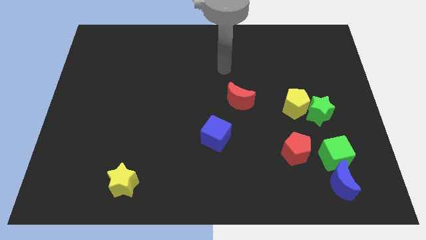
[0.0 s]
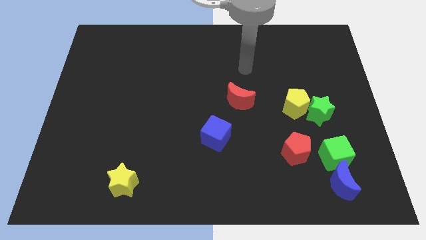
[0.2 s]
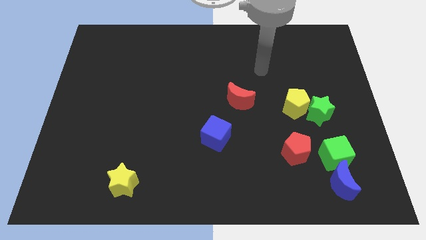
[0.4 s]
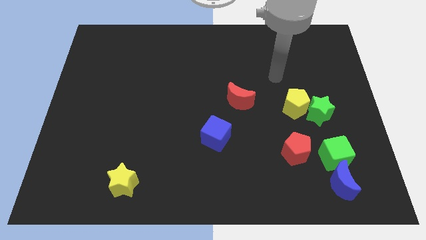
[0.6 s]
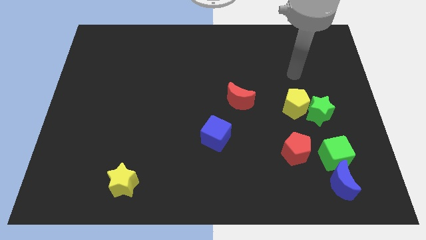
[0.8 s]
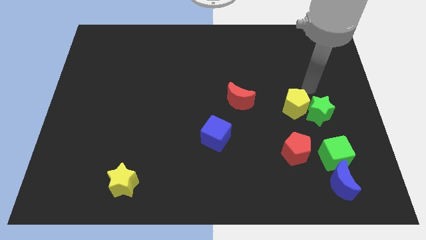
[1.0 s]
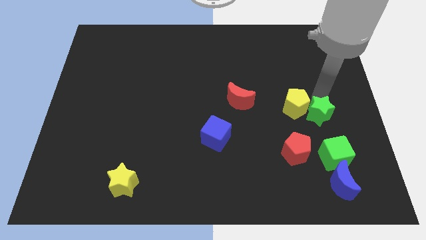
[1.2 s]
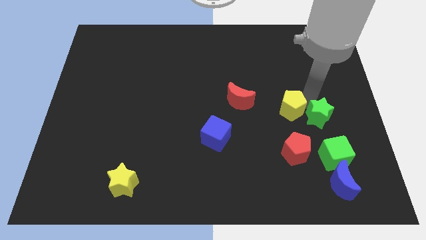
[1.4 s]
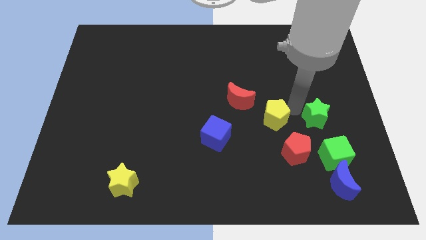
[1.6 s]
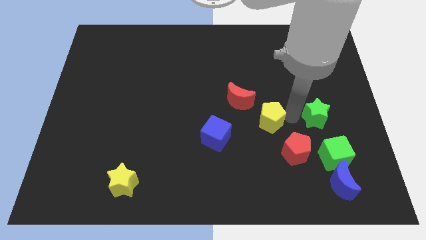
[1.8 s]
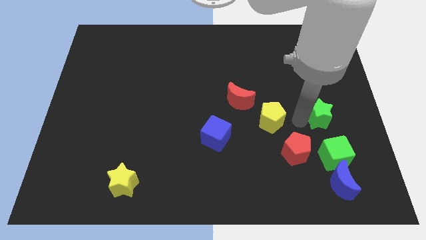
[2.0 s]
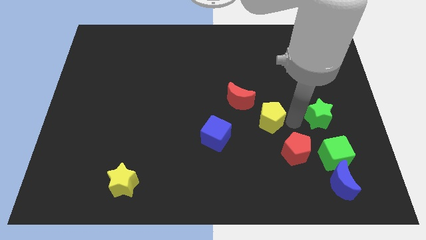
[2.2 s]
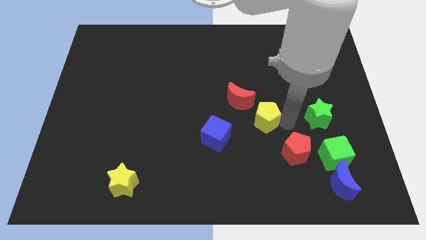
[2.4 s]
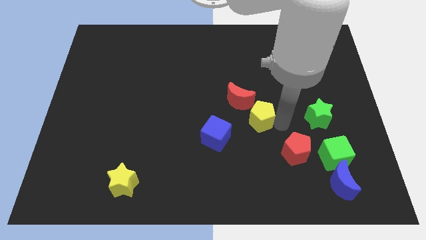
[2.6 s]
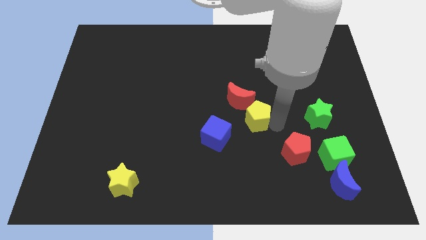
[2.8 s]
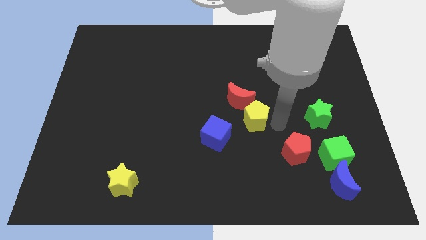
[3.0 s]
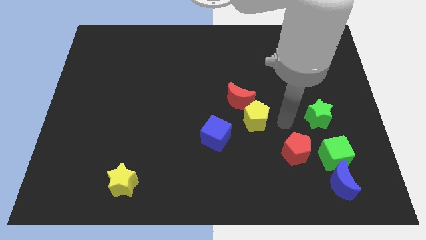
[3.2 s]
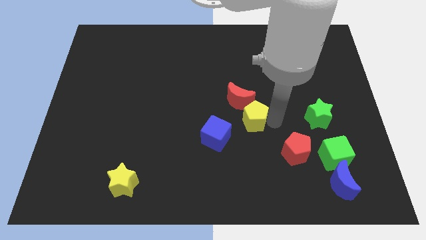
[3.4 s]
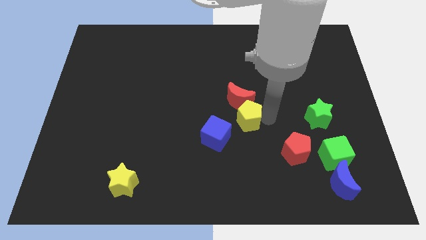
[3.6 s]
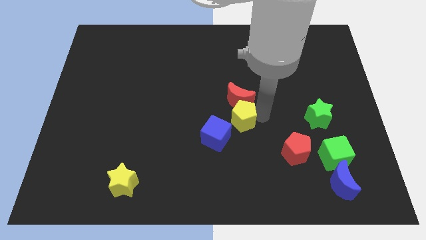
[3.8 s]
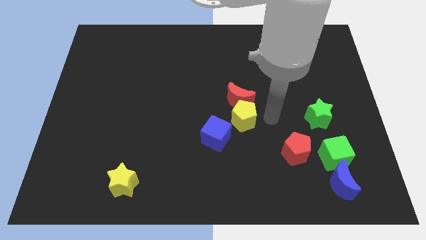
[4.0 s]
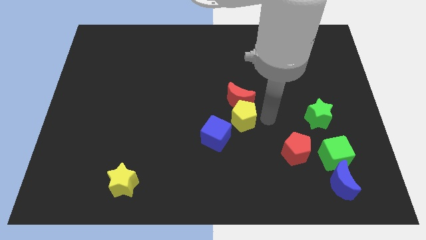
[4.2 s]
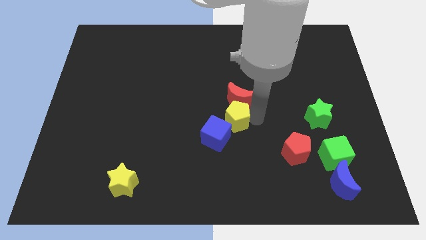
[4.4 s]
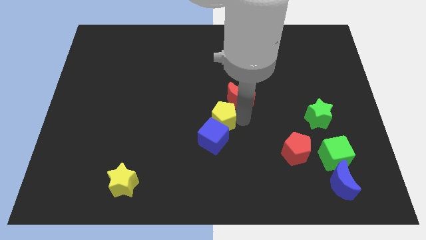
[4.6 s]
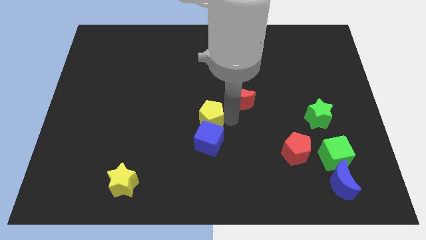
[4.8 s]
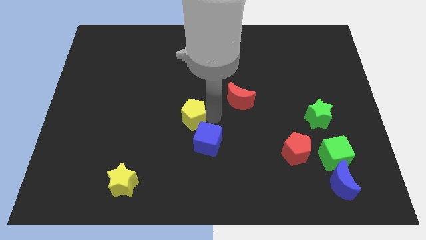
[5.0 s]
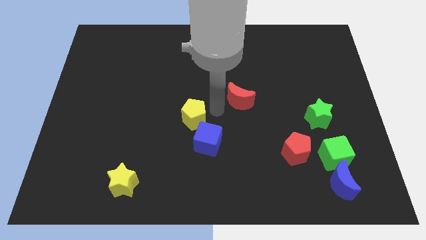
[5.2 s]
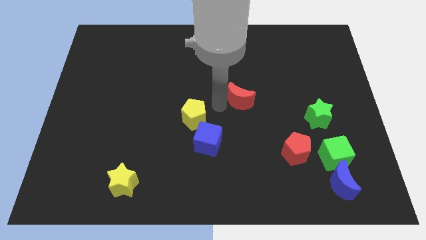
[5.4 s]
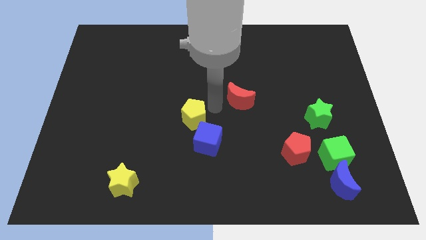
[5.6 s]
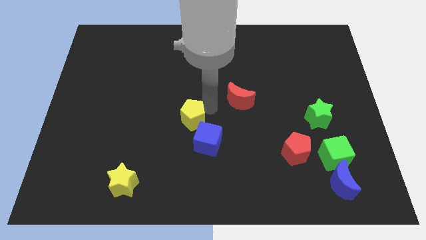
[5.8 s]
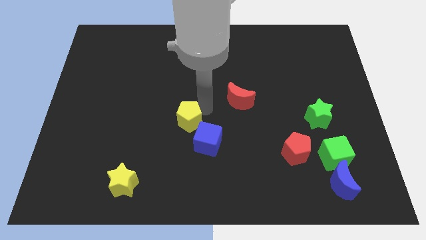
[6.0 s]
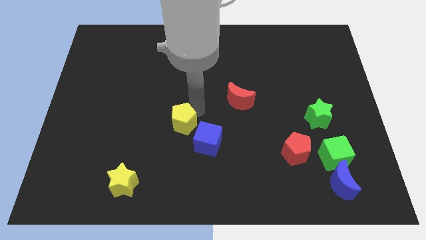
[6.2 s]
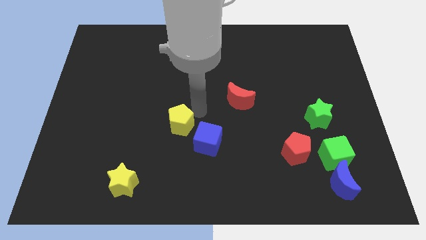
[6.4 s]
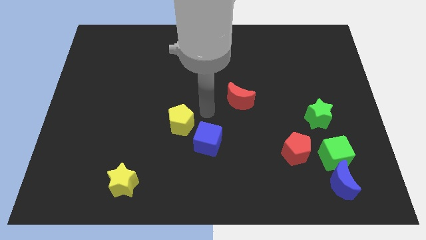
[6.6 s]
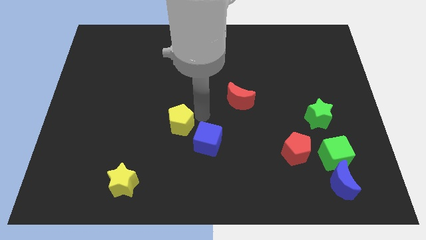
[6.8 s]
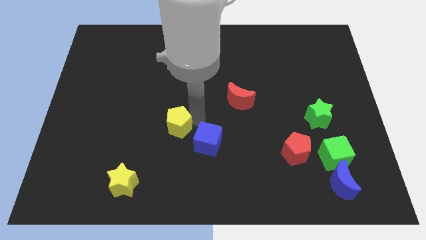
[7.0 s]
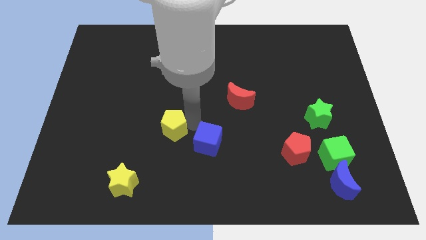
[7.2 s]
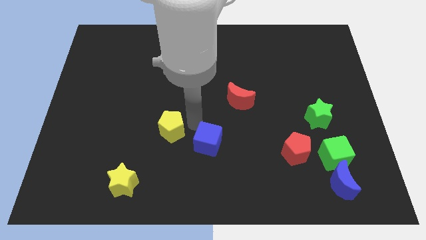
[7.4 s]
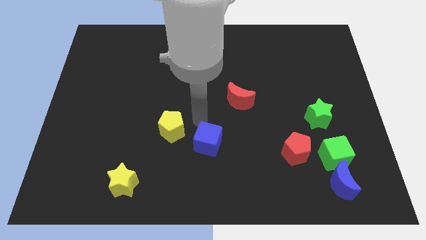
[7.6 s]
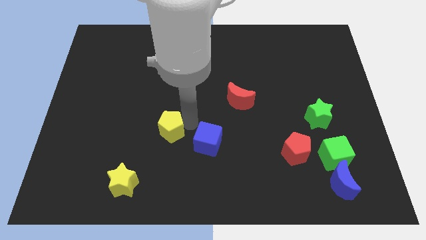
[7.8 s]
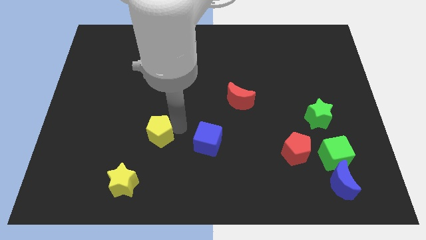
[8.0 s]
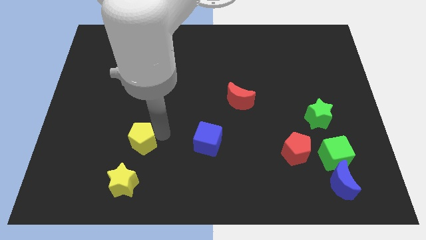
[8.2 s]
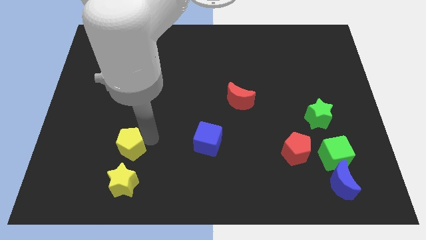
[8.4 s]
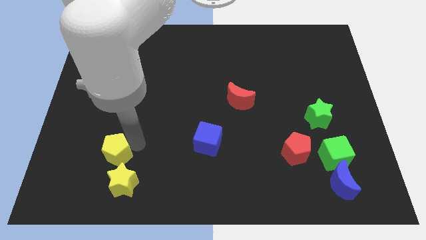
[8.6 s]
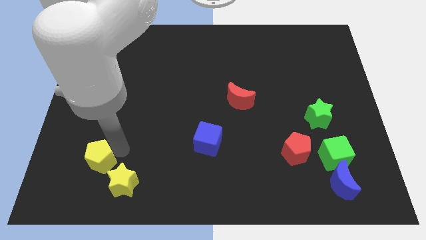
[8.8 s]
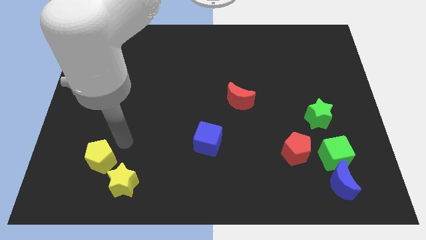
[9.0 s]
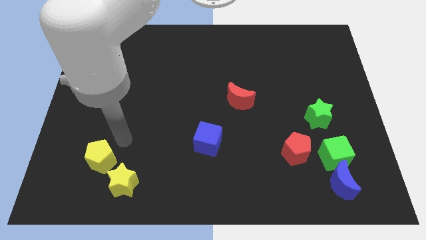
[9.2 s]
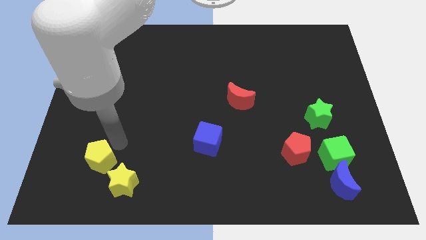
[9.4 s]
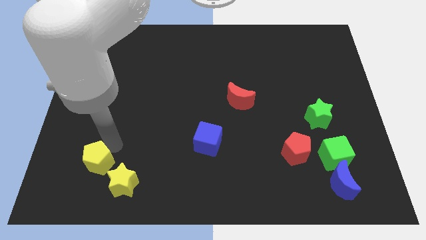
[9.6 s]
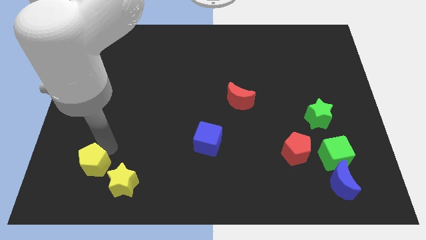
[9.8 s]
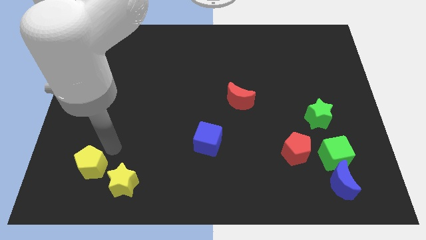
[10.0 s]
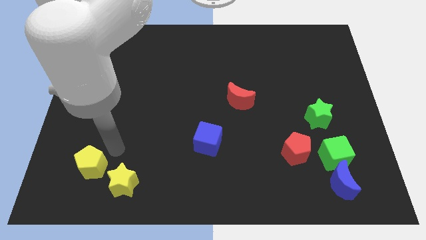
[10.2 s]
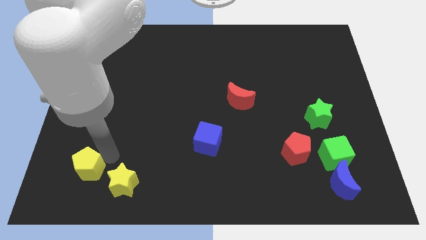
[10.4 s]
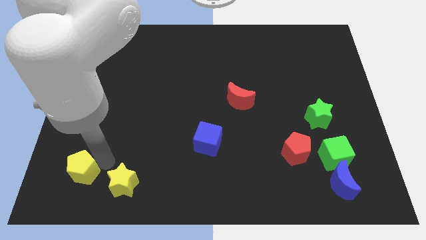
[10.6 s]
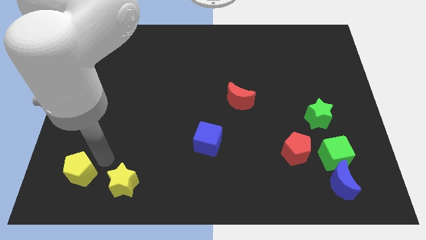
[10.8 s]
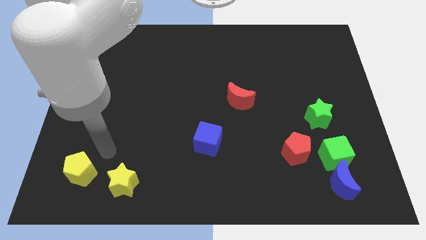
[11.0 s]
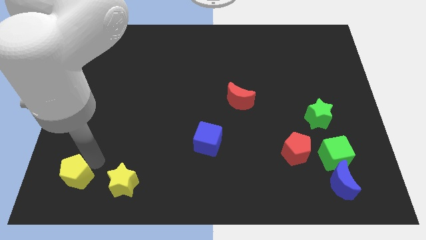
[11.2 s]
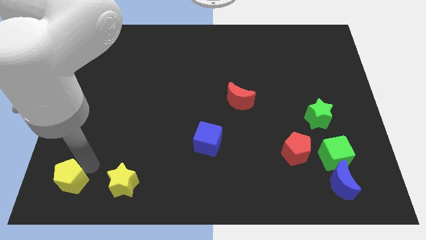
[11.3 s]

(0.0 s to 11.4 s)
put the yellow pentagon to the bottom left corner

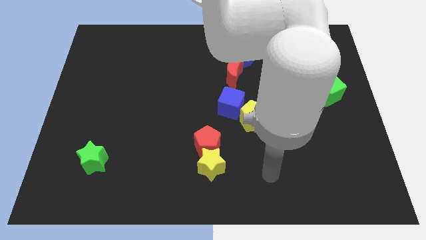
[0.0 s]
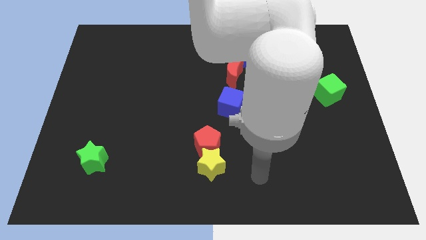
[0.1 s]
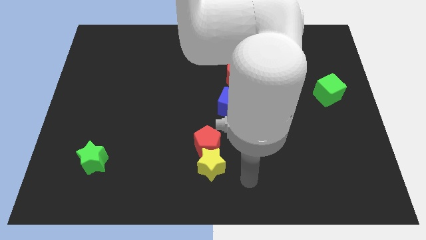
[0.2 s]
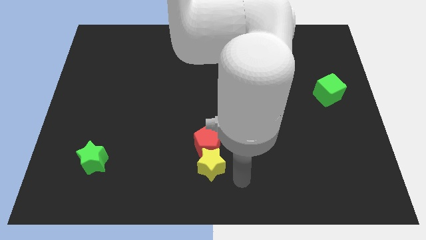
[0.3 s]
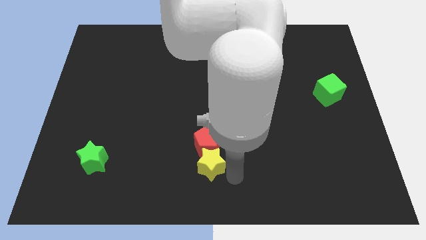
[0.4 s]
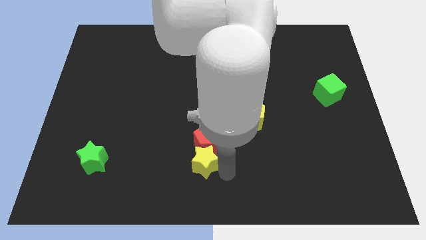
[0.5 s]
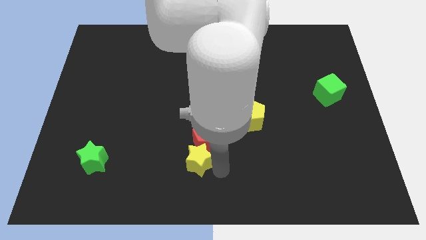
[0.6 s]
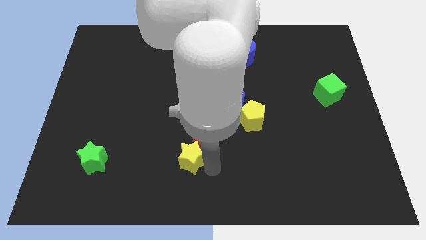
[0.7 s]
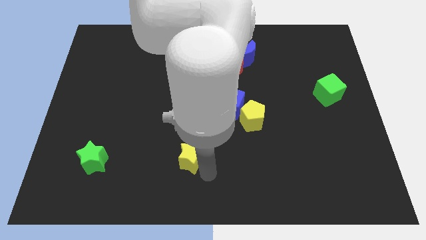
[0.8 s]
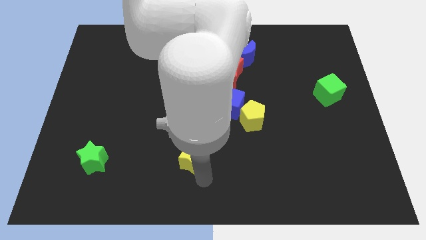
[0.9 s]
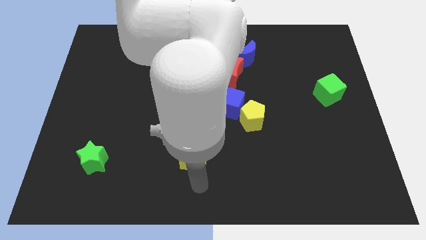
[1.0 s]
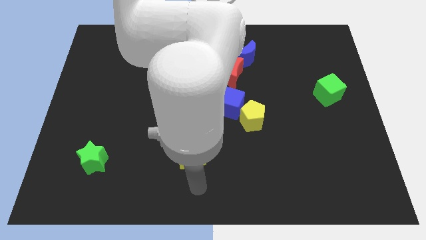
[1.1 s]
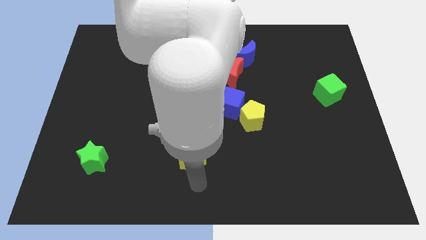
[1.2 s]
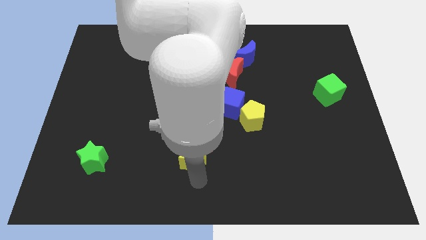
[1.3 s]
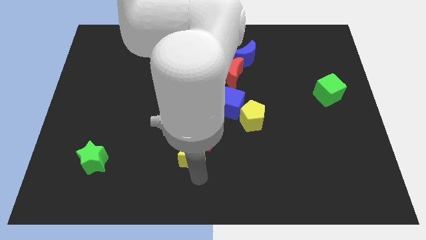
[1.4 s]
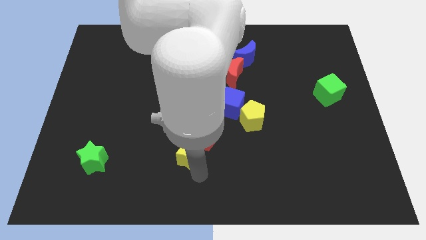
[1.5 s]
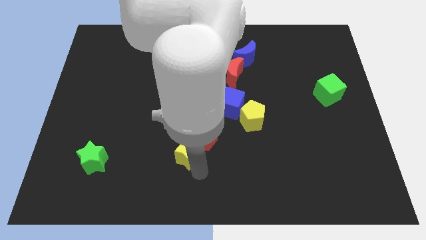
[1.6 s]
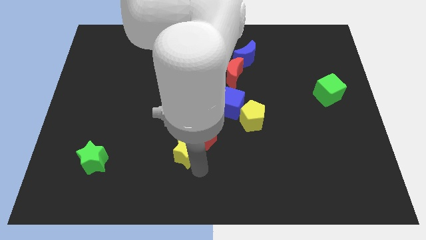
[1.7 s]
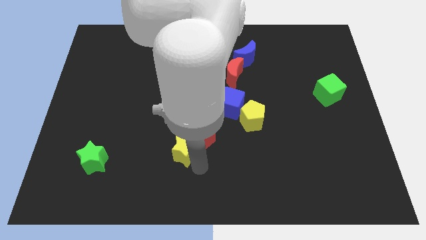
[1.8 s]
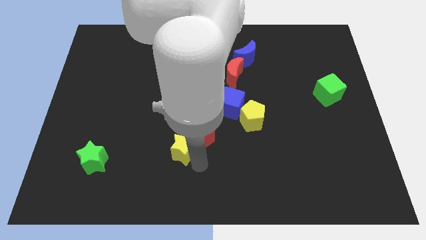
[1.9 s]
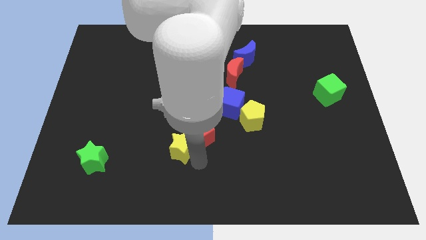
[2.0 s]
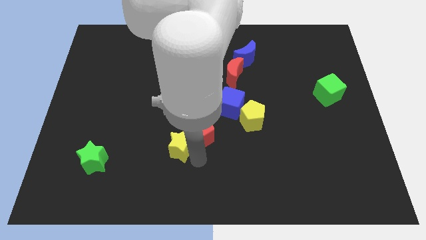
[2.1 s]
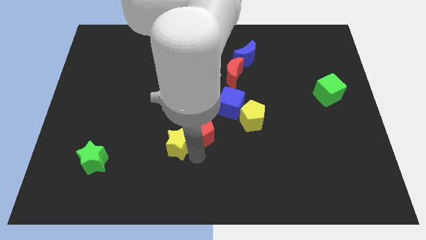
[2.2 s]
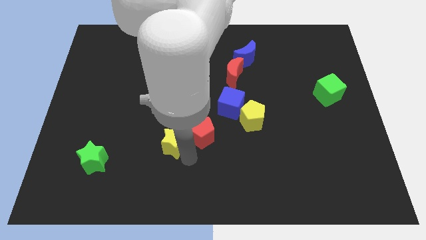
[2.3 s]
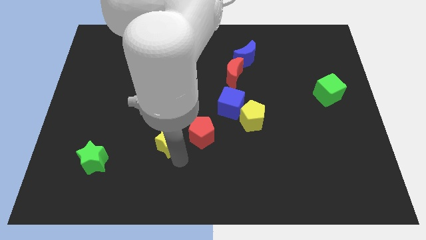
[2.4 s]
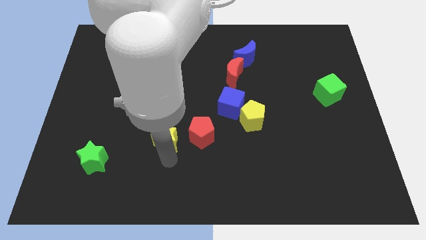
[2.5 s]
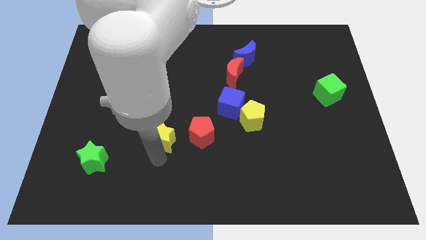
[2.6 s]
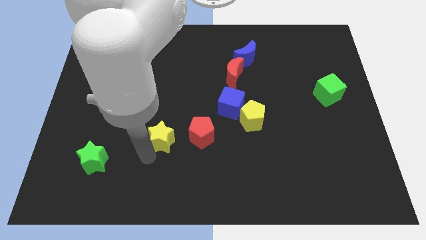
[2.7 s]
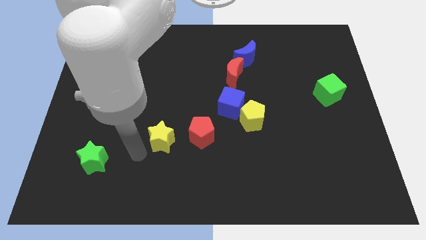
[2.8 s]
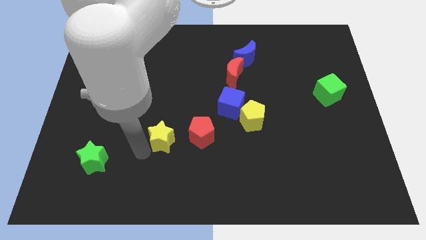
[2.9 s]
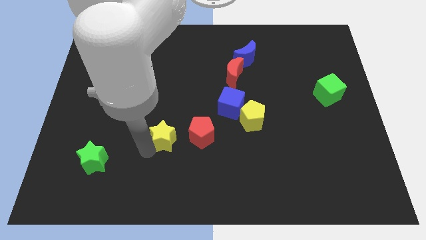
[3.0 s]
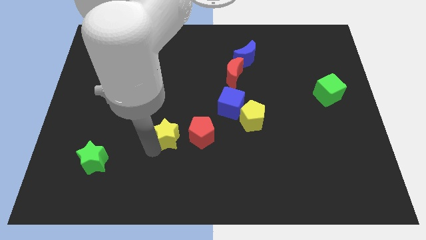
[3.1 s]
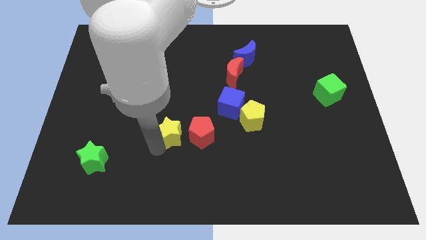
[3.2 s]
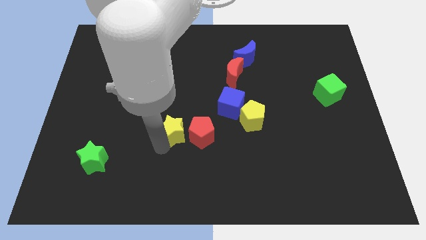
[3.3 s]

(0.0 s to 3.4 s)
push the yellow star to the center of the board
